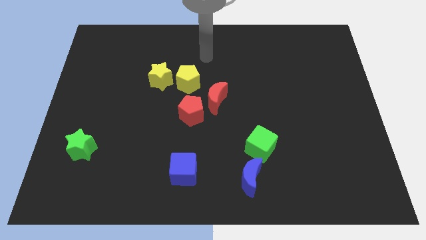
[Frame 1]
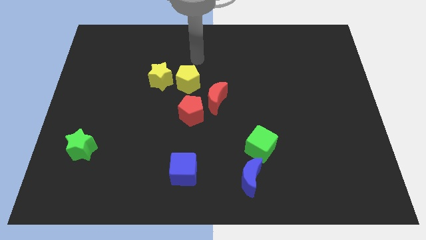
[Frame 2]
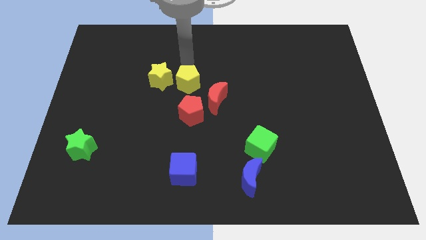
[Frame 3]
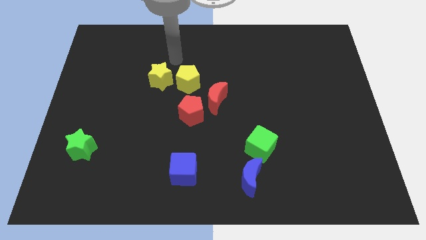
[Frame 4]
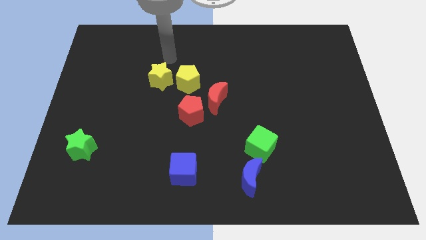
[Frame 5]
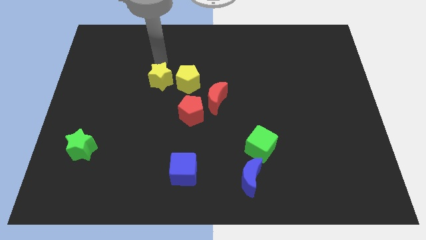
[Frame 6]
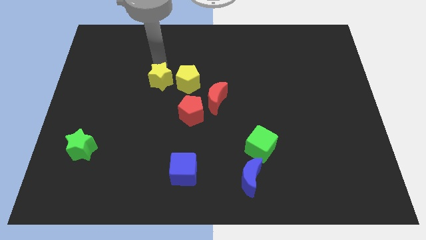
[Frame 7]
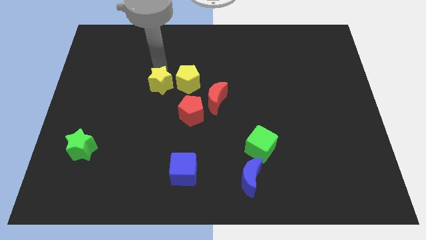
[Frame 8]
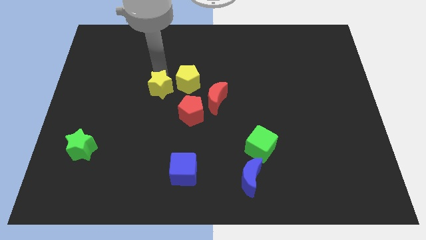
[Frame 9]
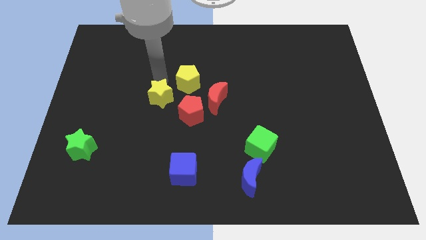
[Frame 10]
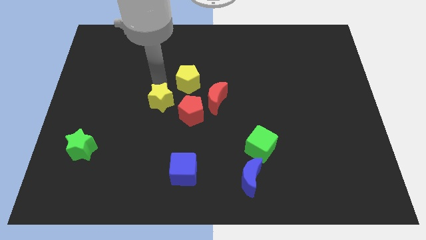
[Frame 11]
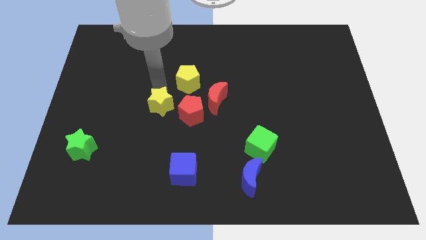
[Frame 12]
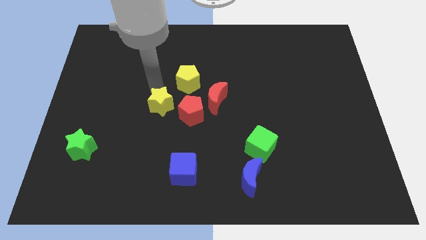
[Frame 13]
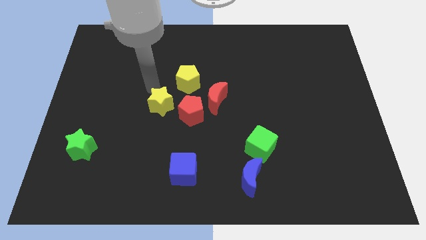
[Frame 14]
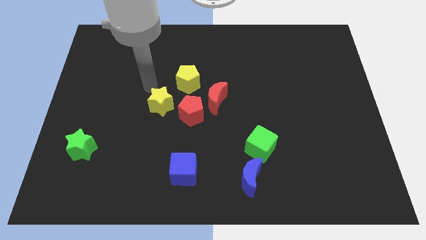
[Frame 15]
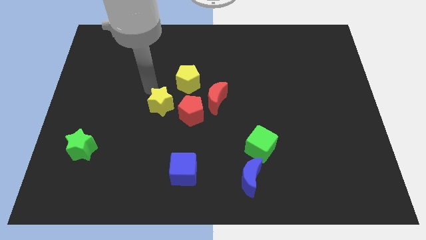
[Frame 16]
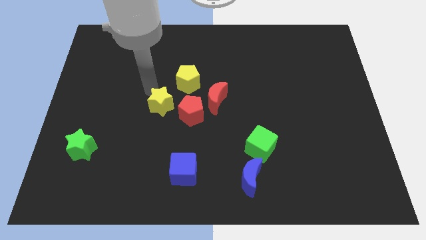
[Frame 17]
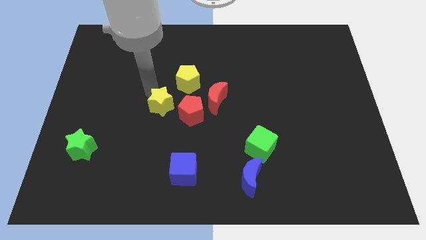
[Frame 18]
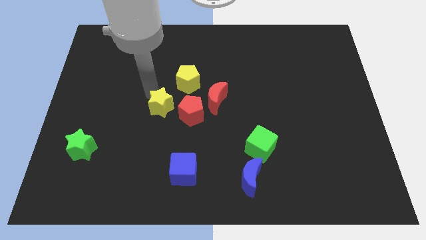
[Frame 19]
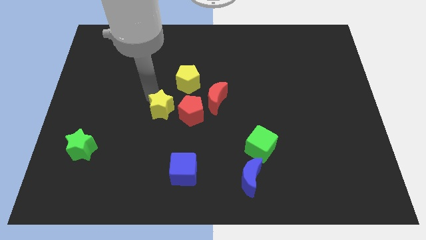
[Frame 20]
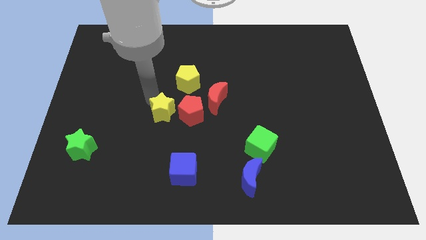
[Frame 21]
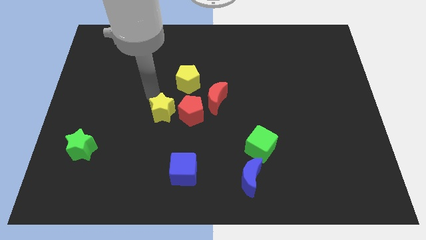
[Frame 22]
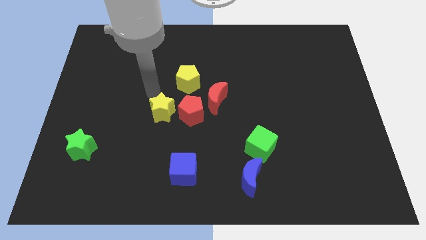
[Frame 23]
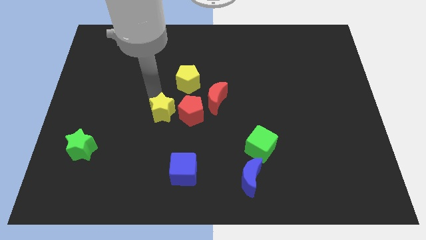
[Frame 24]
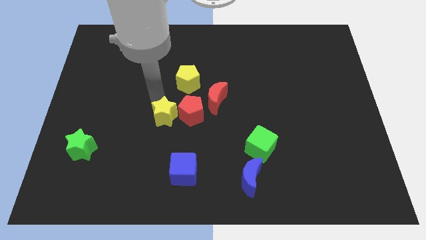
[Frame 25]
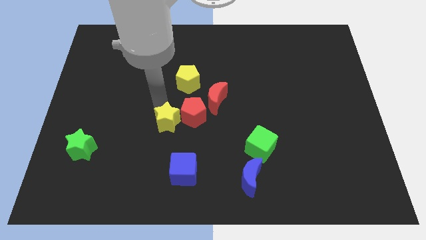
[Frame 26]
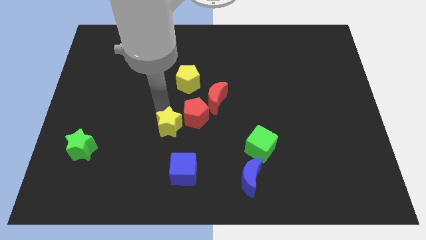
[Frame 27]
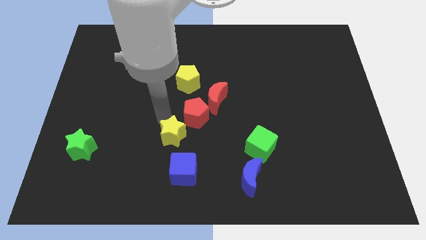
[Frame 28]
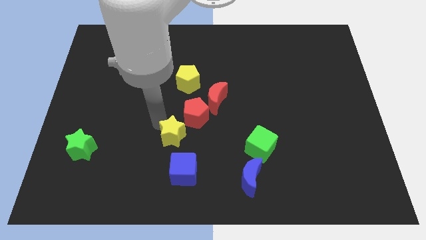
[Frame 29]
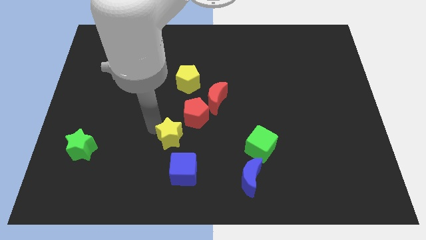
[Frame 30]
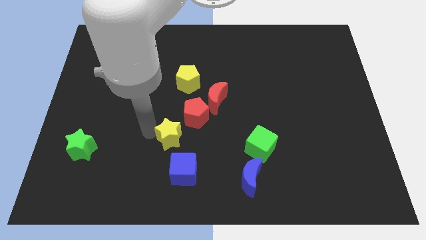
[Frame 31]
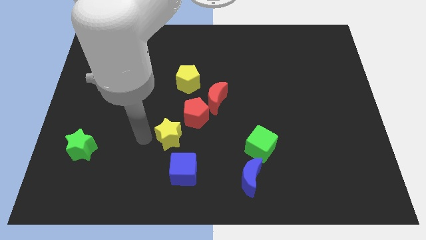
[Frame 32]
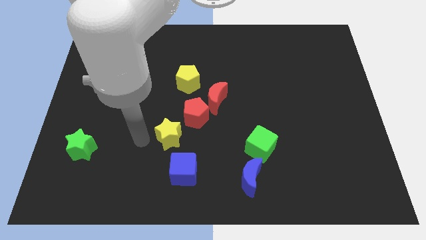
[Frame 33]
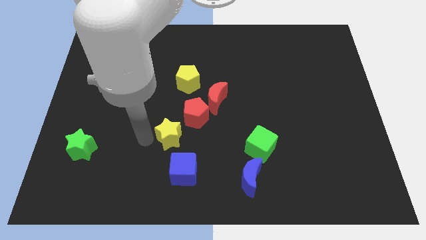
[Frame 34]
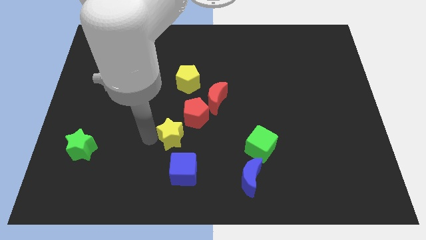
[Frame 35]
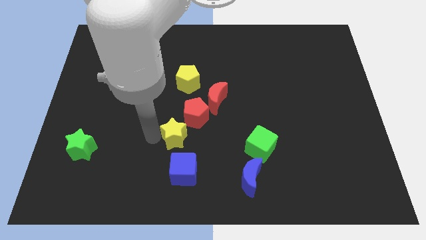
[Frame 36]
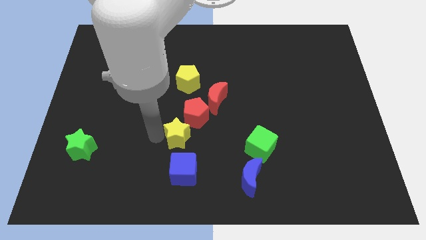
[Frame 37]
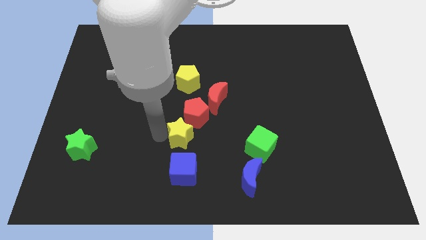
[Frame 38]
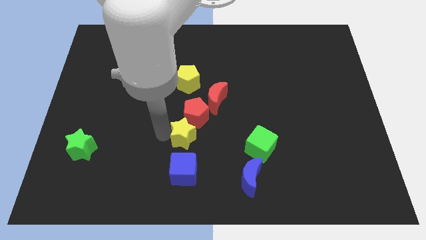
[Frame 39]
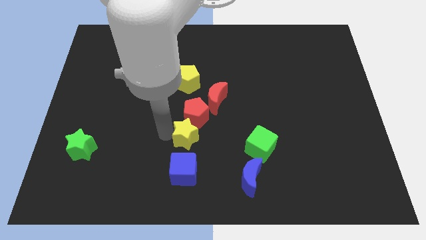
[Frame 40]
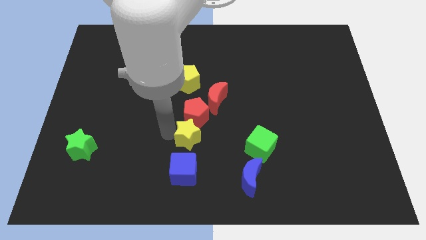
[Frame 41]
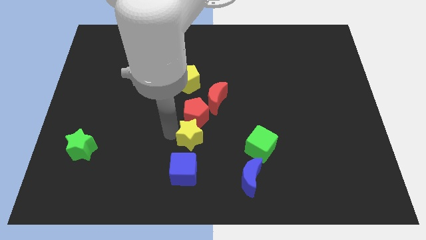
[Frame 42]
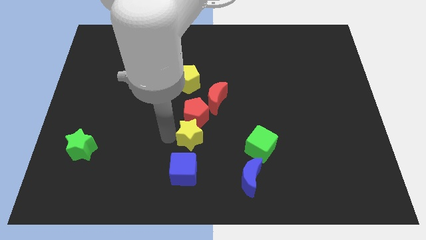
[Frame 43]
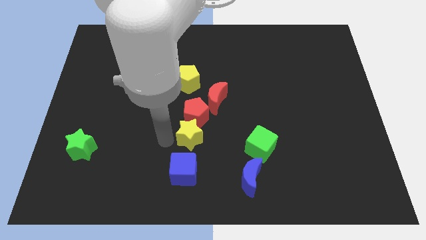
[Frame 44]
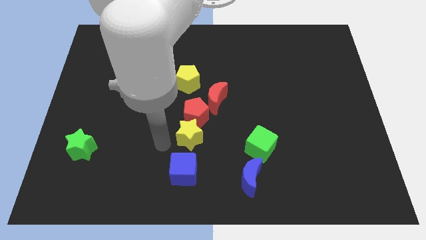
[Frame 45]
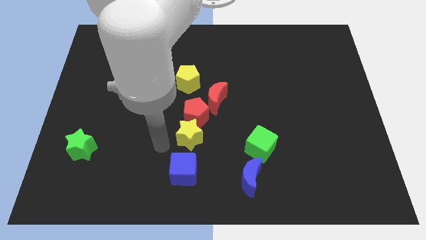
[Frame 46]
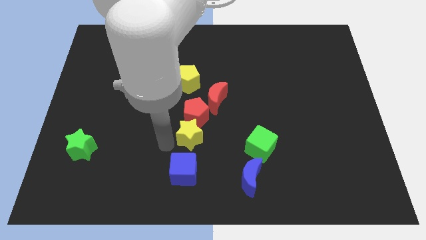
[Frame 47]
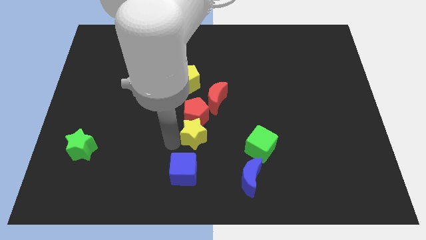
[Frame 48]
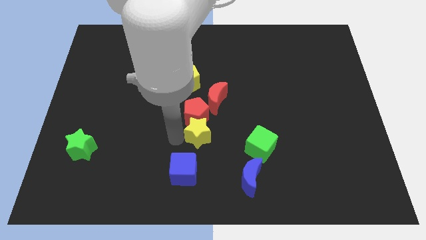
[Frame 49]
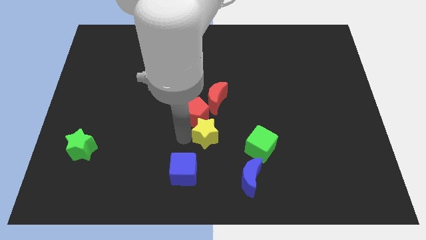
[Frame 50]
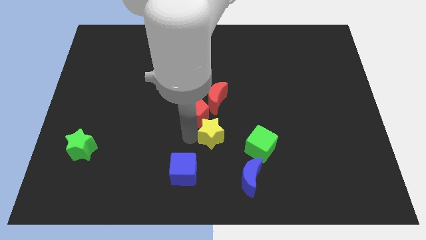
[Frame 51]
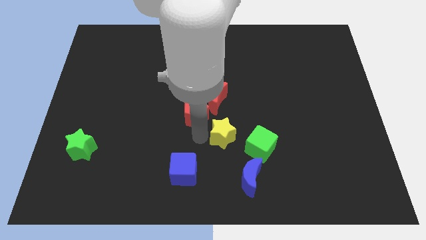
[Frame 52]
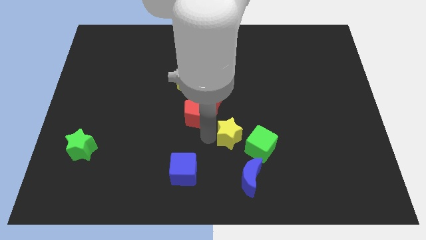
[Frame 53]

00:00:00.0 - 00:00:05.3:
push the yellow star above the blue moon

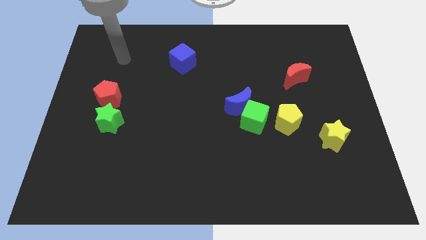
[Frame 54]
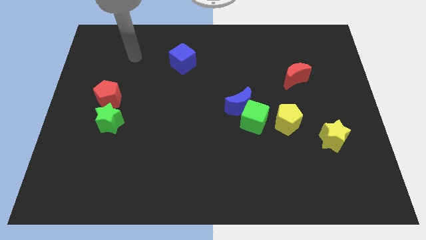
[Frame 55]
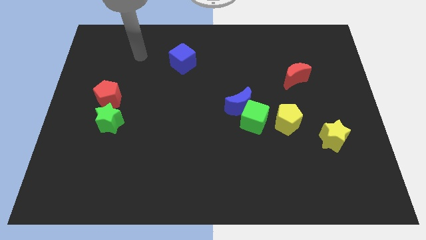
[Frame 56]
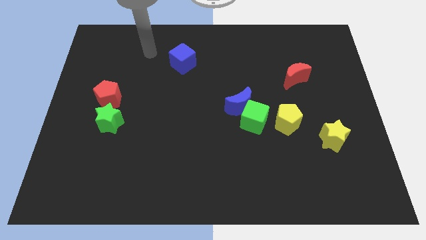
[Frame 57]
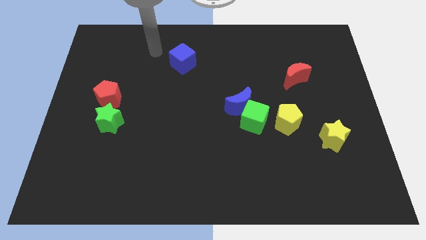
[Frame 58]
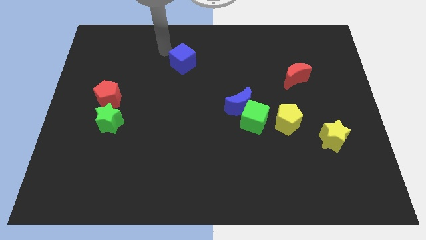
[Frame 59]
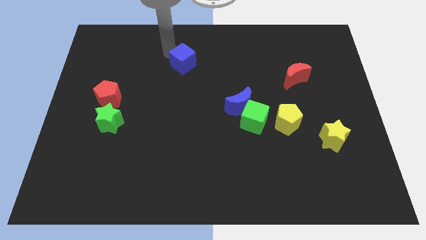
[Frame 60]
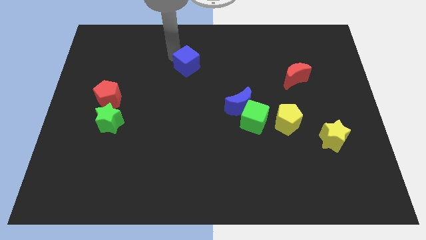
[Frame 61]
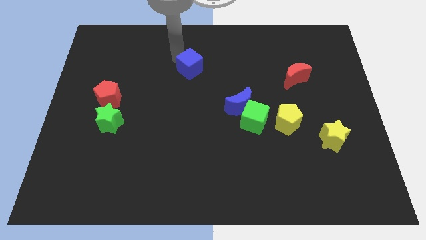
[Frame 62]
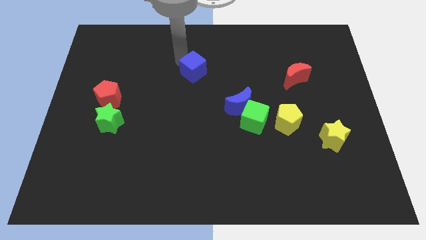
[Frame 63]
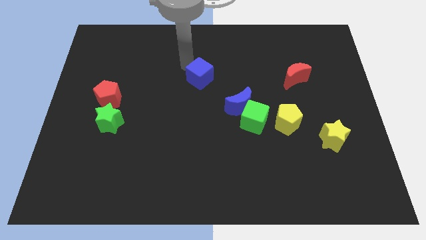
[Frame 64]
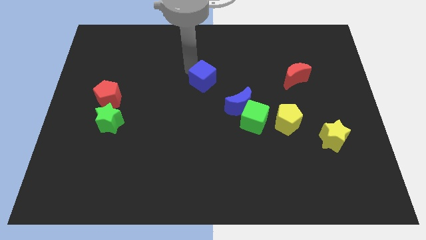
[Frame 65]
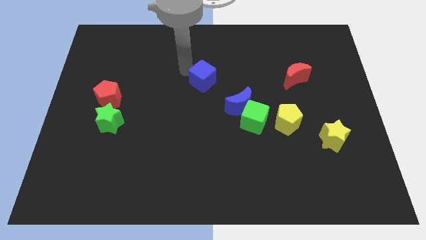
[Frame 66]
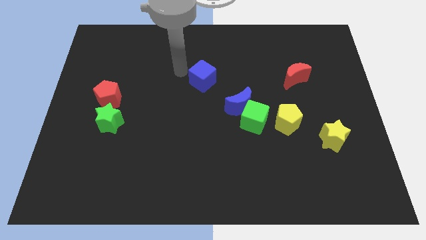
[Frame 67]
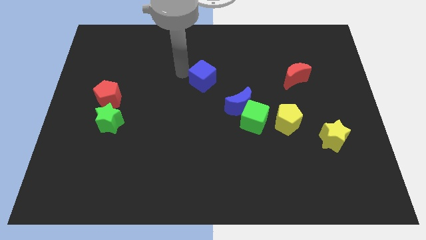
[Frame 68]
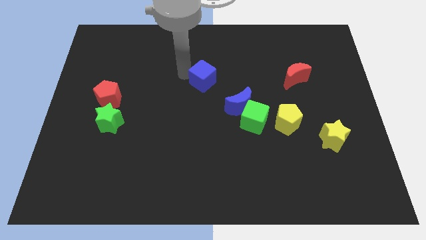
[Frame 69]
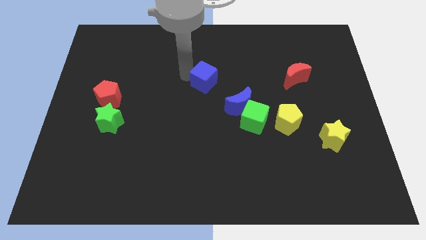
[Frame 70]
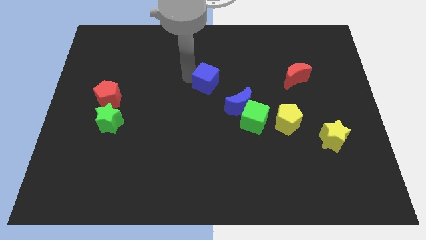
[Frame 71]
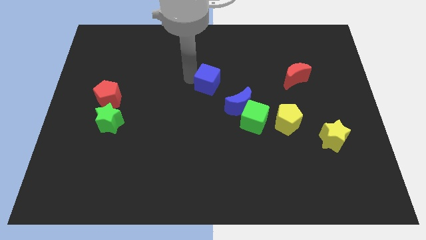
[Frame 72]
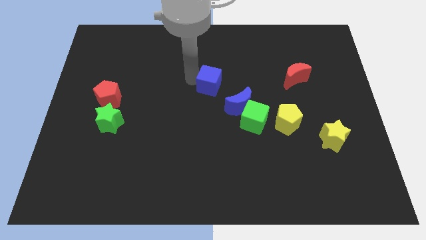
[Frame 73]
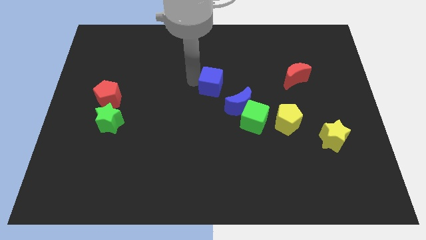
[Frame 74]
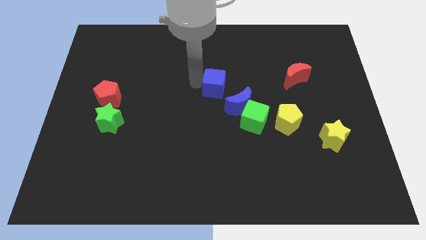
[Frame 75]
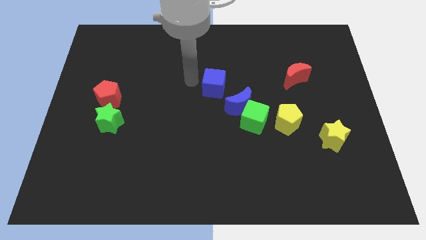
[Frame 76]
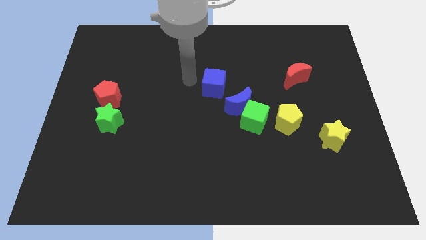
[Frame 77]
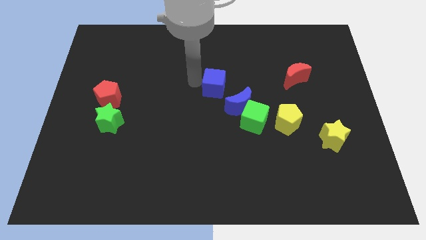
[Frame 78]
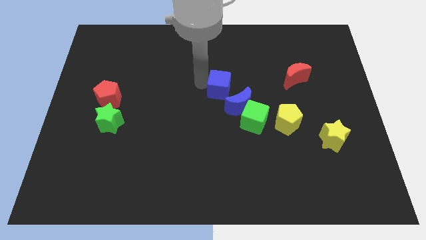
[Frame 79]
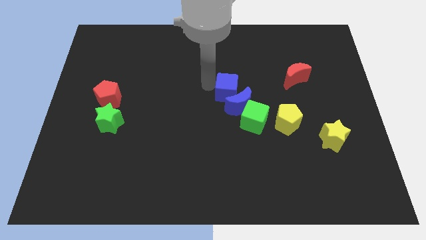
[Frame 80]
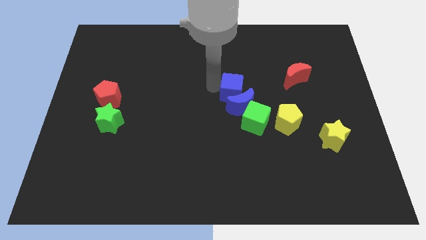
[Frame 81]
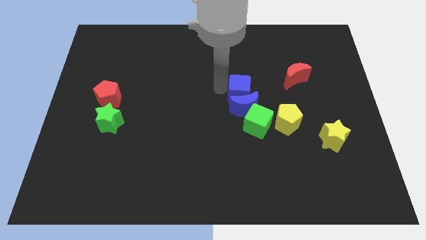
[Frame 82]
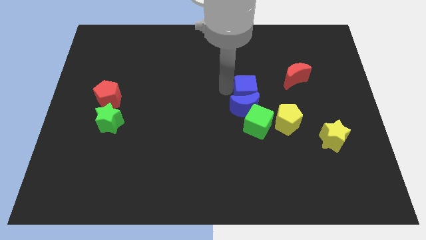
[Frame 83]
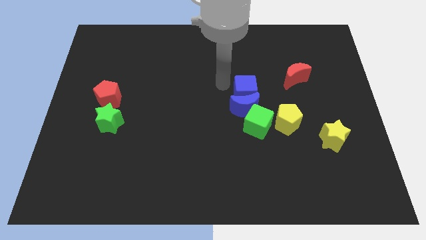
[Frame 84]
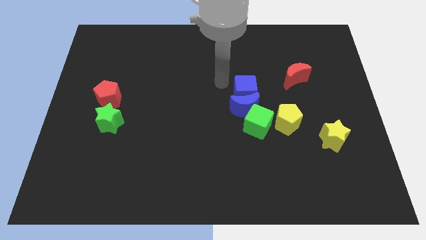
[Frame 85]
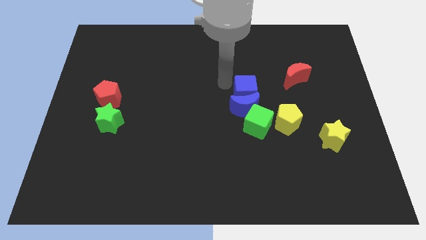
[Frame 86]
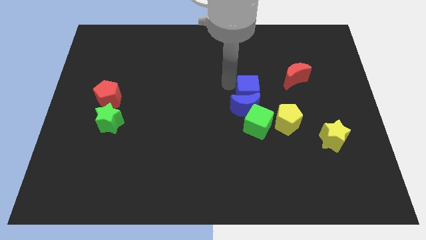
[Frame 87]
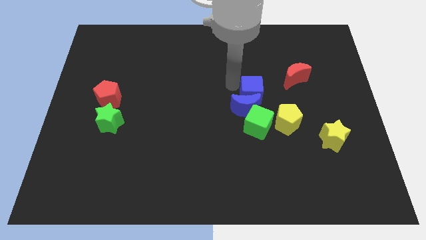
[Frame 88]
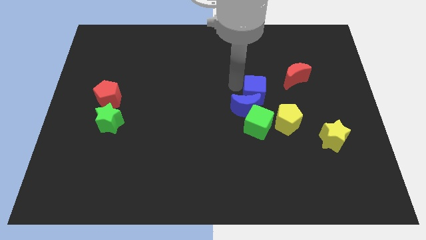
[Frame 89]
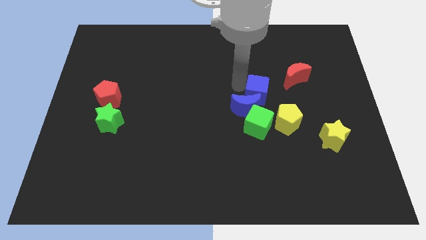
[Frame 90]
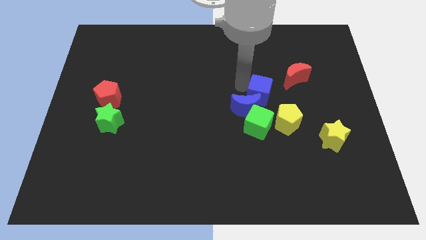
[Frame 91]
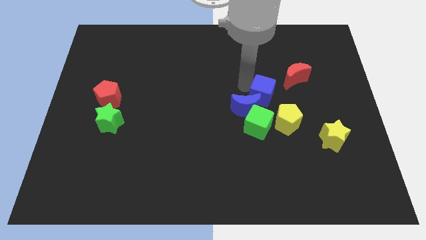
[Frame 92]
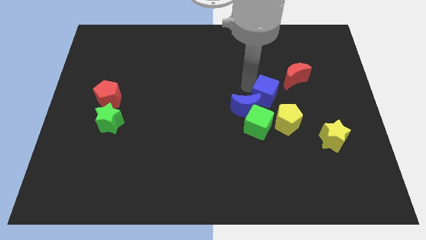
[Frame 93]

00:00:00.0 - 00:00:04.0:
push the blue cube diagonally up and to the right of the green cube
